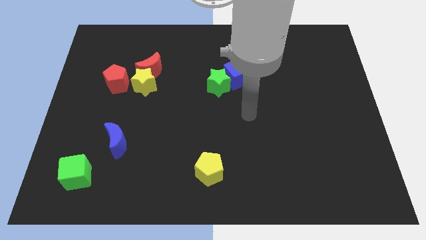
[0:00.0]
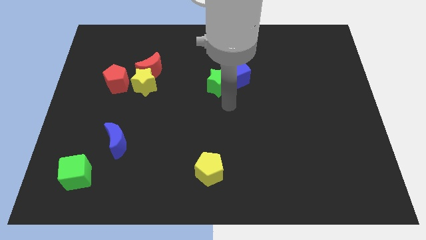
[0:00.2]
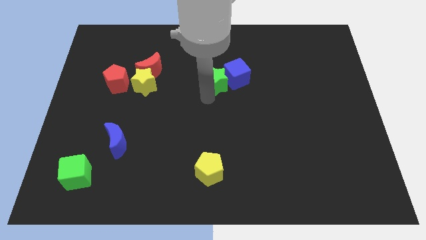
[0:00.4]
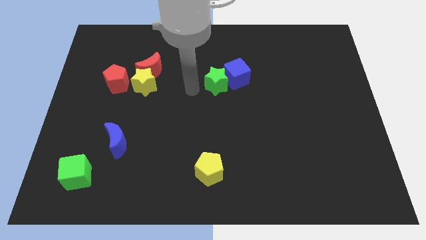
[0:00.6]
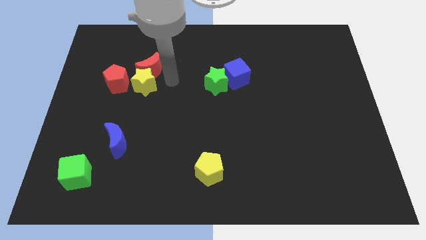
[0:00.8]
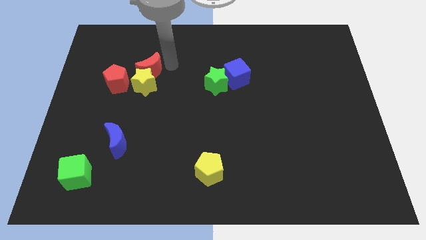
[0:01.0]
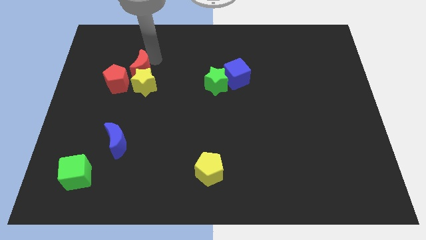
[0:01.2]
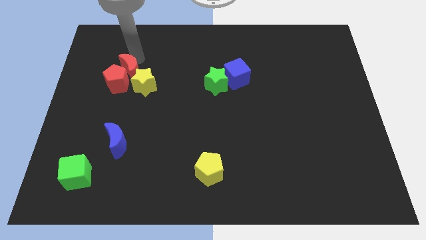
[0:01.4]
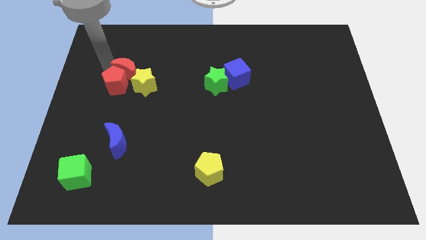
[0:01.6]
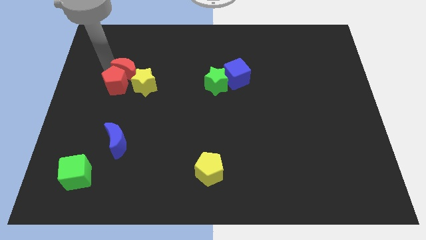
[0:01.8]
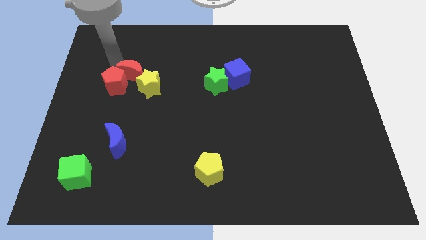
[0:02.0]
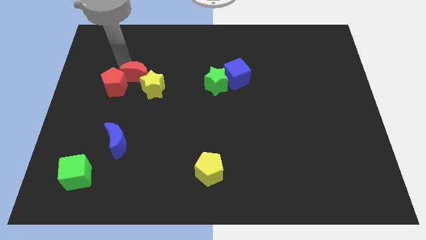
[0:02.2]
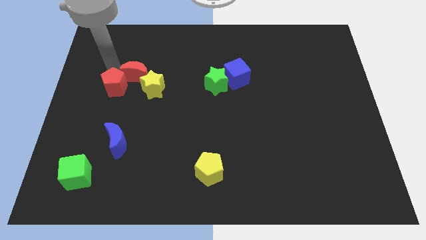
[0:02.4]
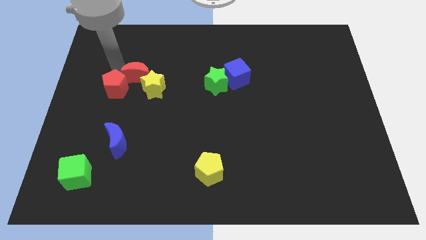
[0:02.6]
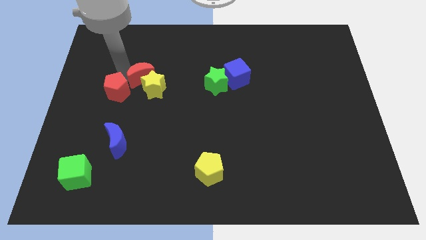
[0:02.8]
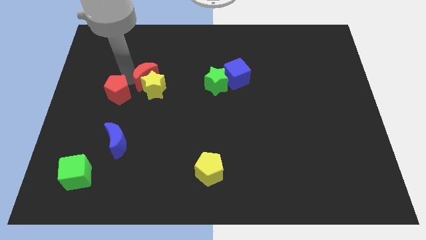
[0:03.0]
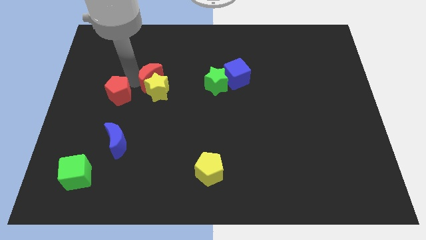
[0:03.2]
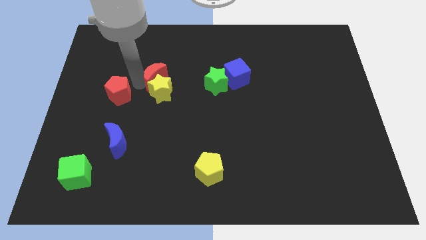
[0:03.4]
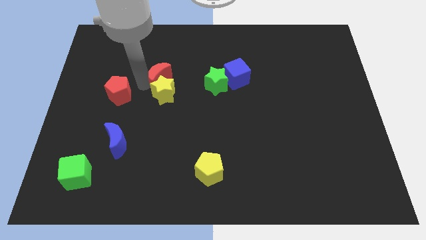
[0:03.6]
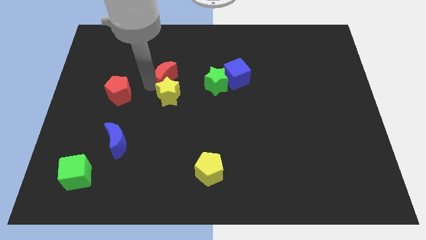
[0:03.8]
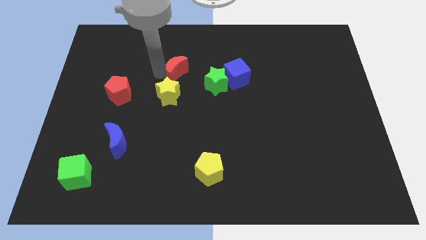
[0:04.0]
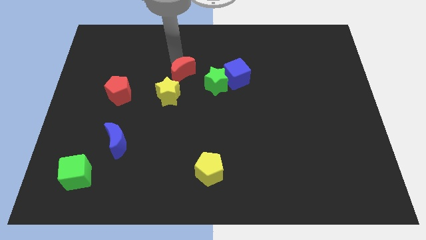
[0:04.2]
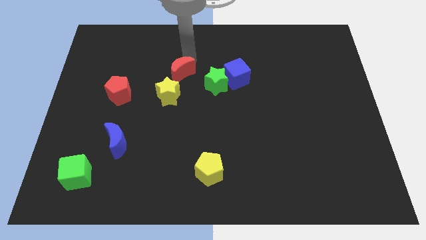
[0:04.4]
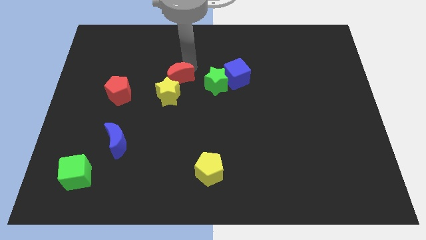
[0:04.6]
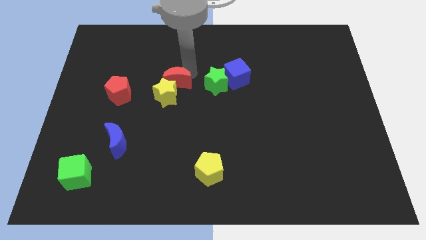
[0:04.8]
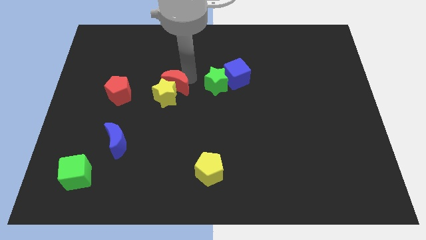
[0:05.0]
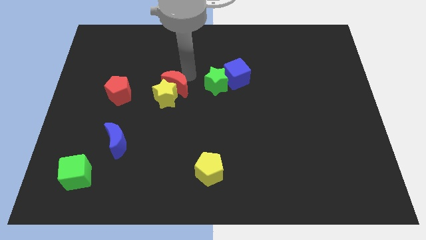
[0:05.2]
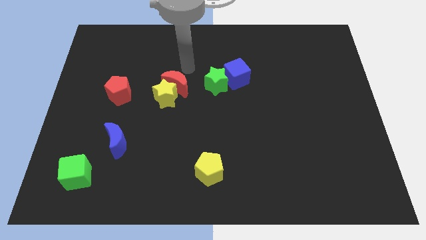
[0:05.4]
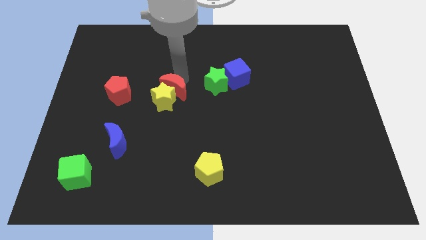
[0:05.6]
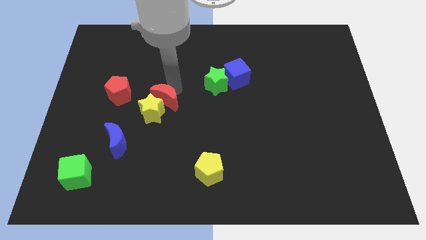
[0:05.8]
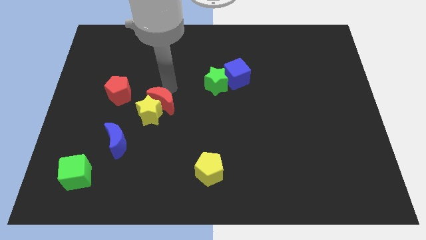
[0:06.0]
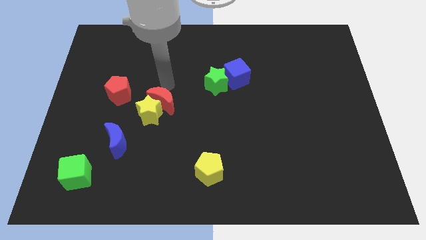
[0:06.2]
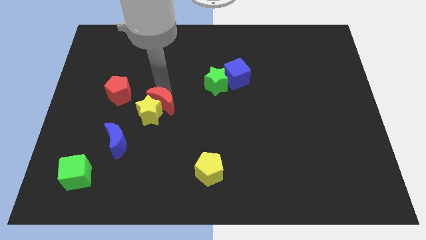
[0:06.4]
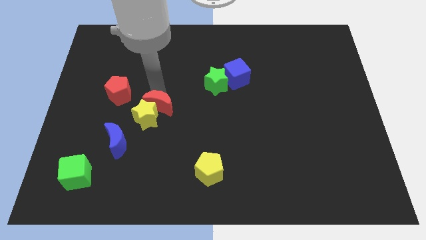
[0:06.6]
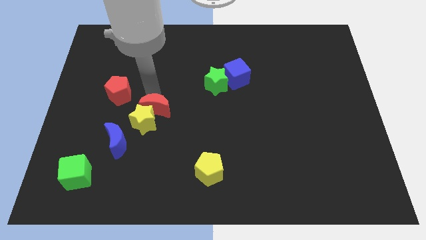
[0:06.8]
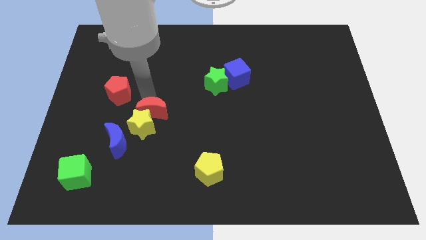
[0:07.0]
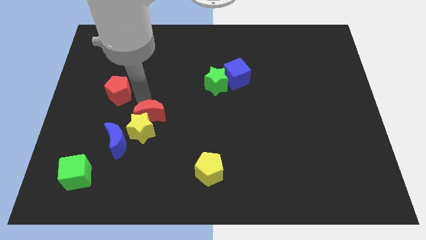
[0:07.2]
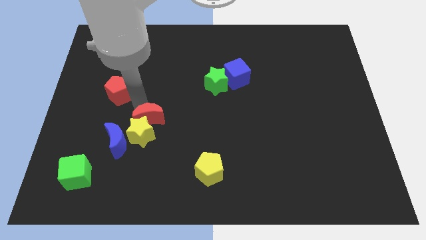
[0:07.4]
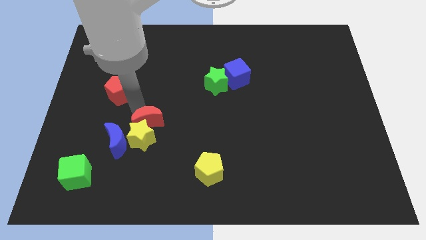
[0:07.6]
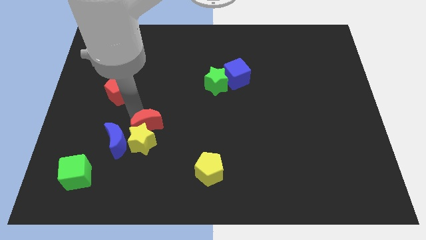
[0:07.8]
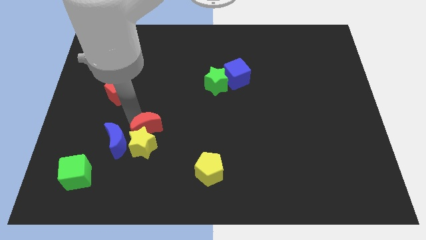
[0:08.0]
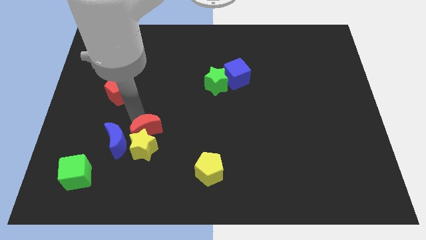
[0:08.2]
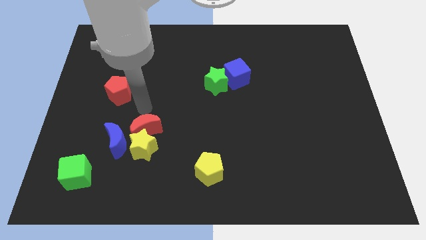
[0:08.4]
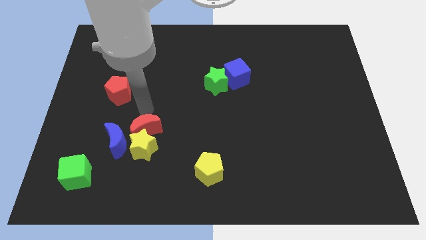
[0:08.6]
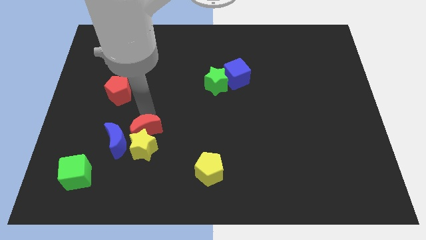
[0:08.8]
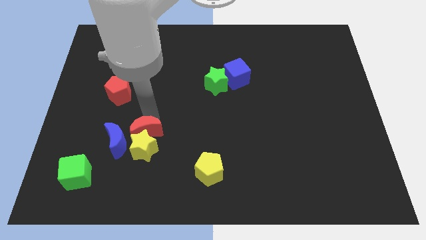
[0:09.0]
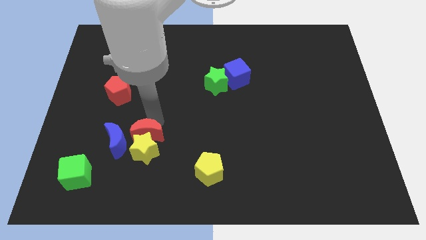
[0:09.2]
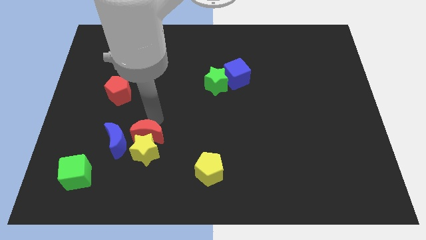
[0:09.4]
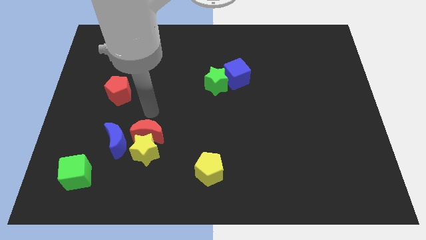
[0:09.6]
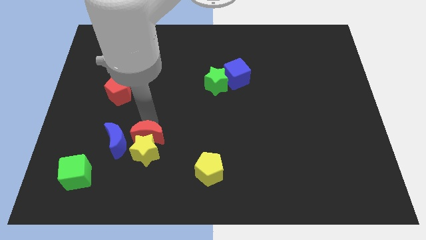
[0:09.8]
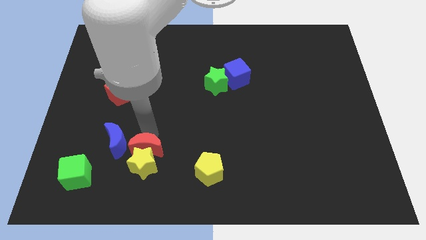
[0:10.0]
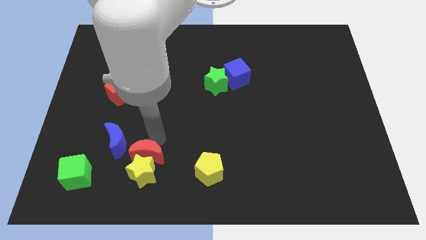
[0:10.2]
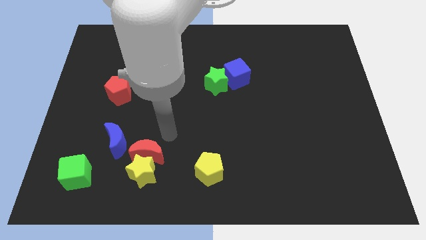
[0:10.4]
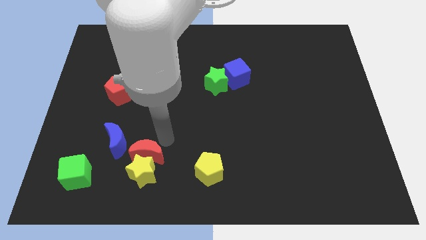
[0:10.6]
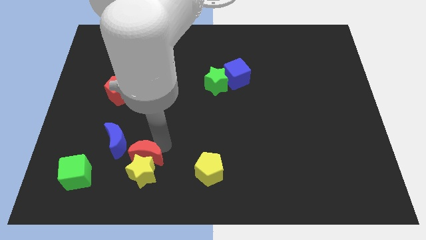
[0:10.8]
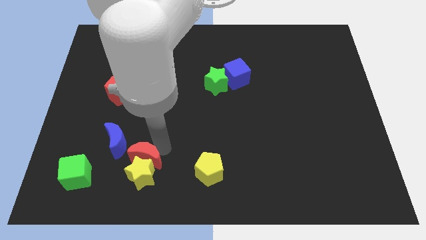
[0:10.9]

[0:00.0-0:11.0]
slide the red moon to the right of the green cube

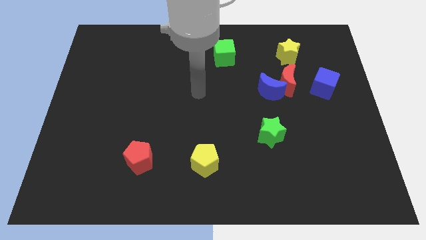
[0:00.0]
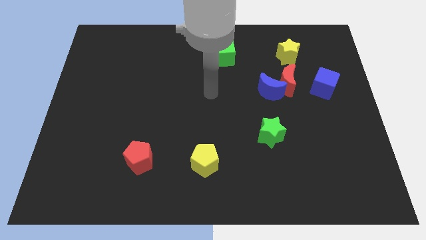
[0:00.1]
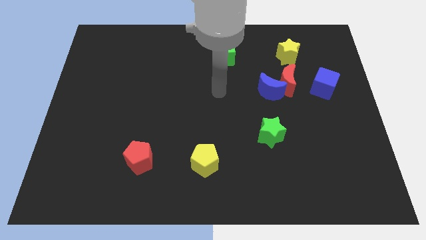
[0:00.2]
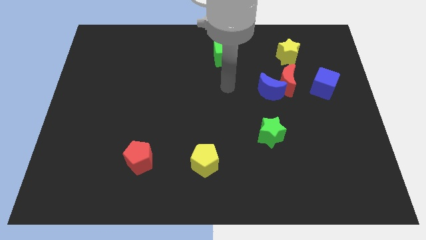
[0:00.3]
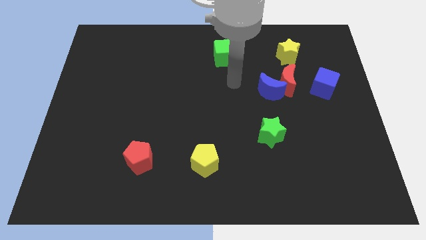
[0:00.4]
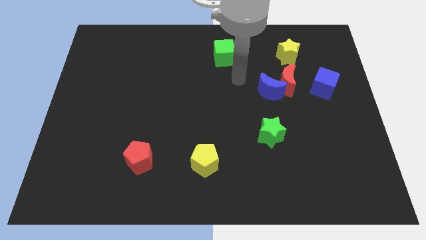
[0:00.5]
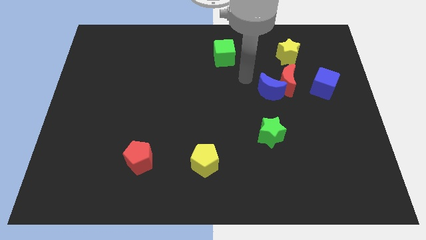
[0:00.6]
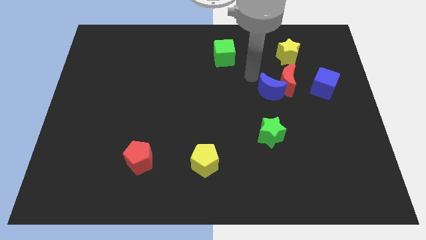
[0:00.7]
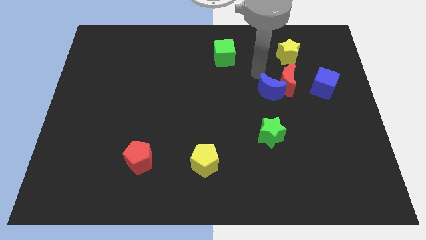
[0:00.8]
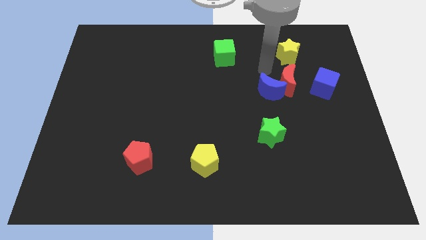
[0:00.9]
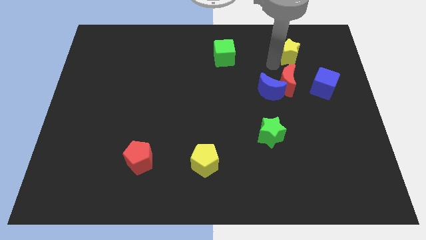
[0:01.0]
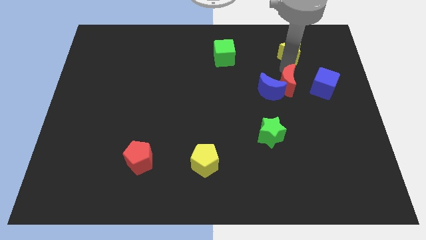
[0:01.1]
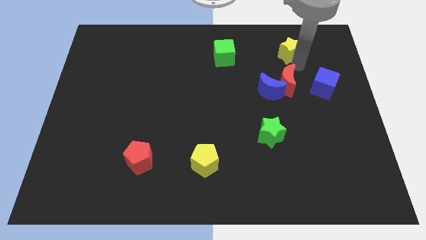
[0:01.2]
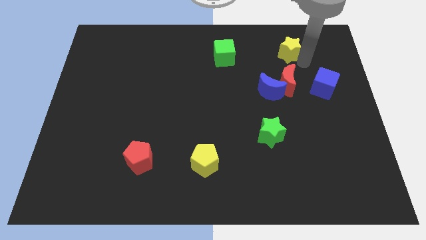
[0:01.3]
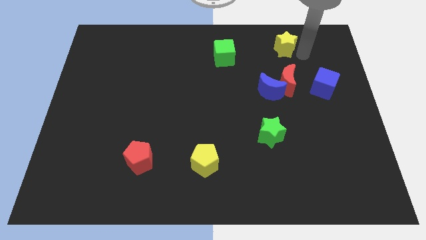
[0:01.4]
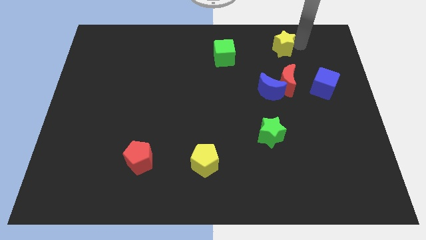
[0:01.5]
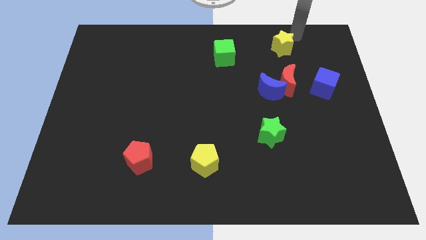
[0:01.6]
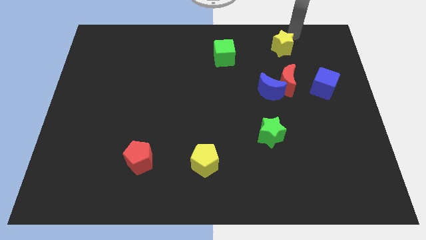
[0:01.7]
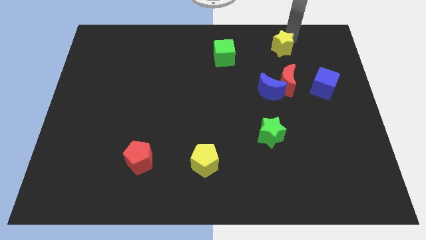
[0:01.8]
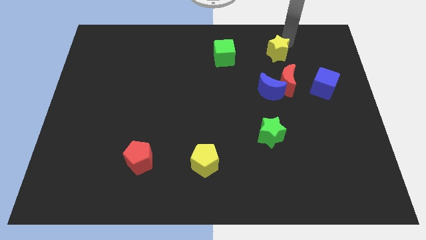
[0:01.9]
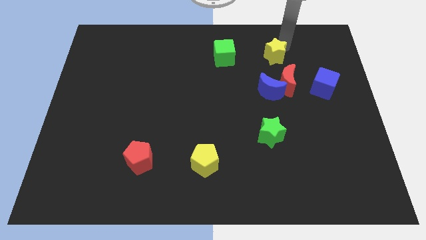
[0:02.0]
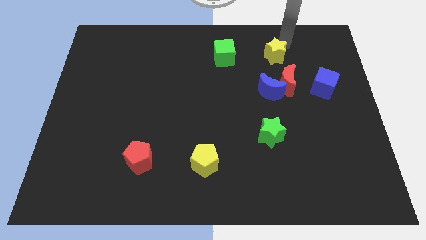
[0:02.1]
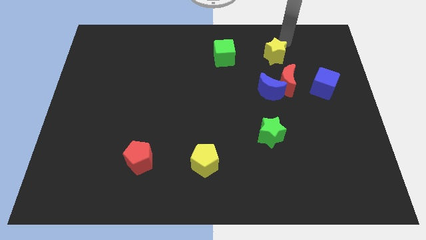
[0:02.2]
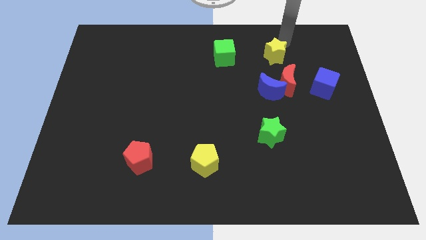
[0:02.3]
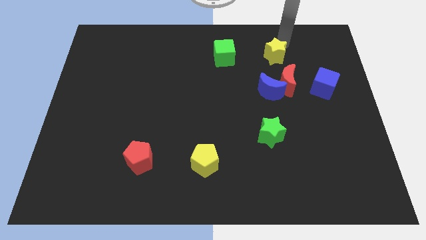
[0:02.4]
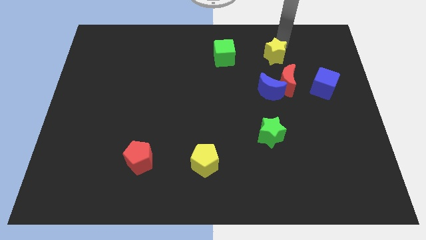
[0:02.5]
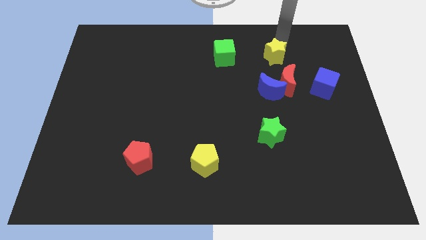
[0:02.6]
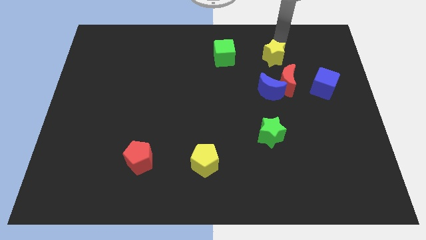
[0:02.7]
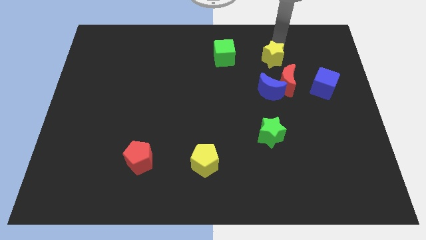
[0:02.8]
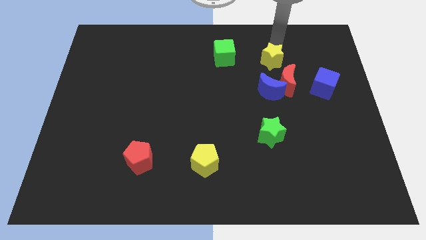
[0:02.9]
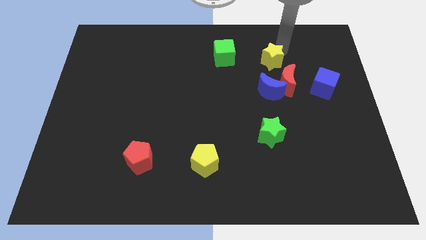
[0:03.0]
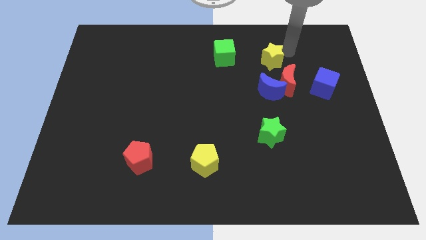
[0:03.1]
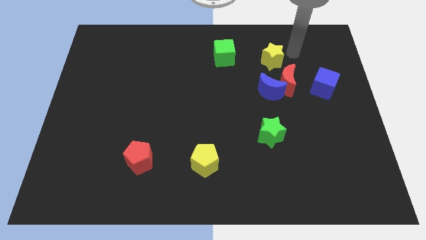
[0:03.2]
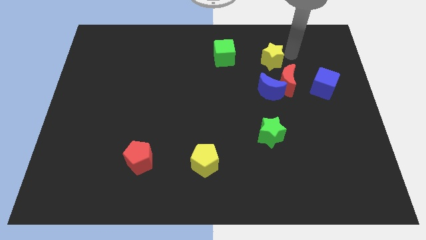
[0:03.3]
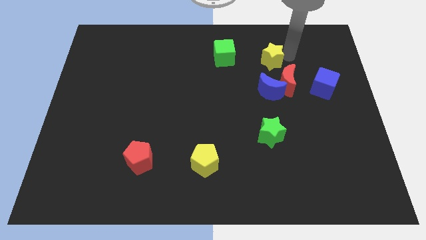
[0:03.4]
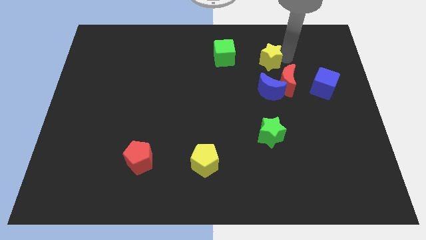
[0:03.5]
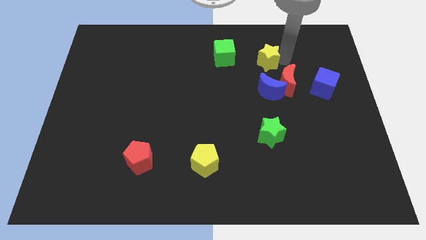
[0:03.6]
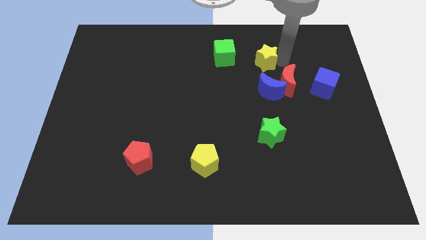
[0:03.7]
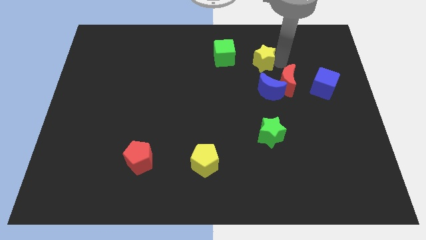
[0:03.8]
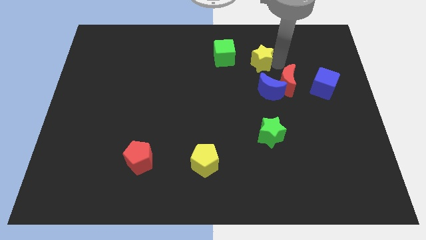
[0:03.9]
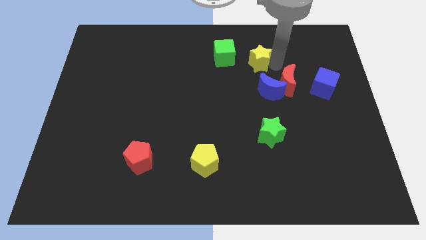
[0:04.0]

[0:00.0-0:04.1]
push the yellow star to the bottom right side of the green cube
